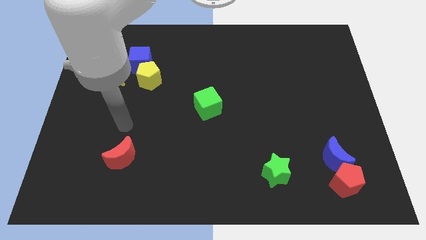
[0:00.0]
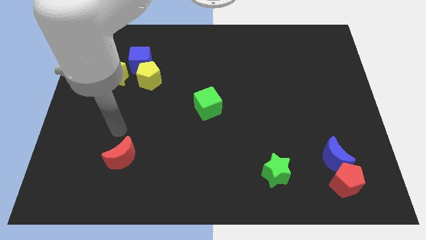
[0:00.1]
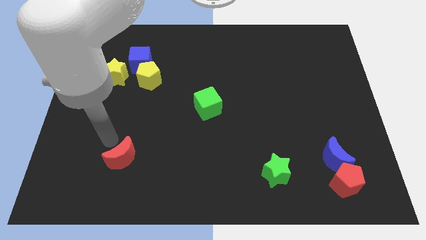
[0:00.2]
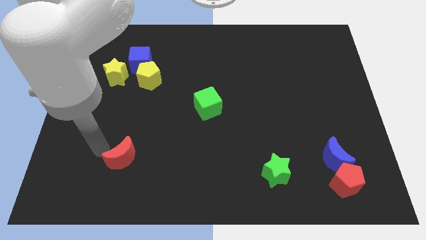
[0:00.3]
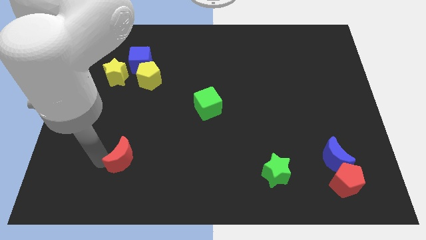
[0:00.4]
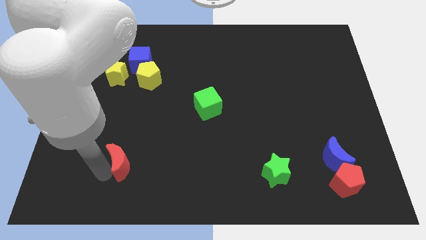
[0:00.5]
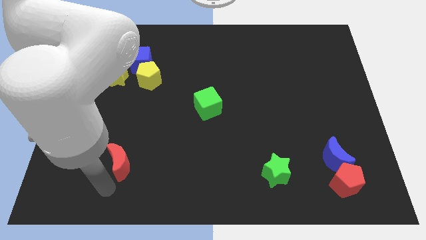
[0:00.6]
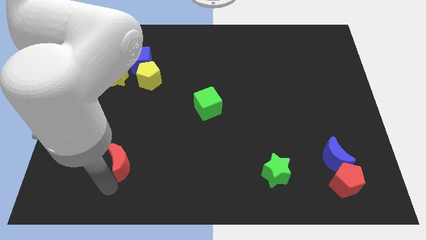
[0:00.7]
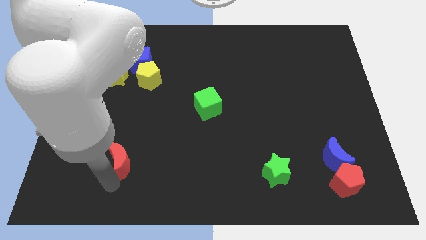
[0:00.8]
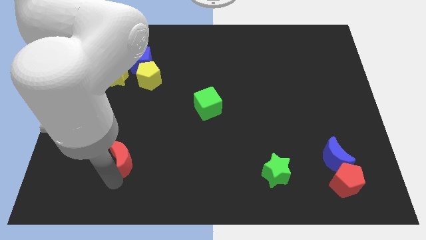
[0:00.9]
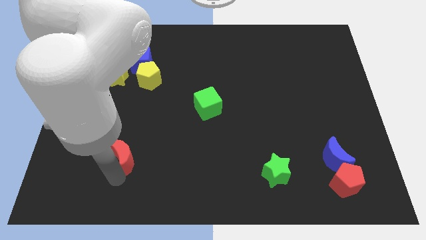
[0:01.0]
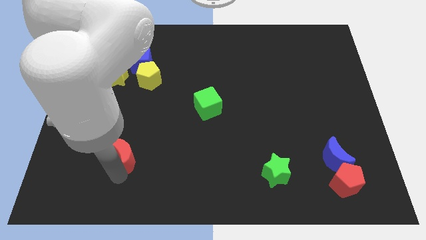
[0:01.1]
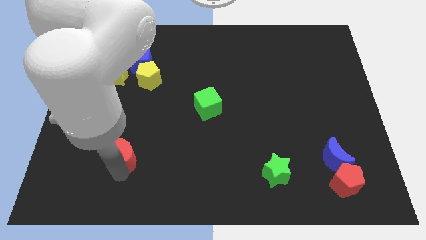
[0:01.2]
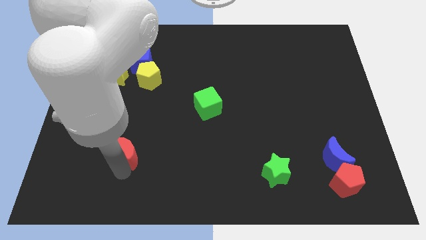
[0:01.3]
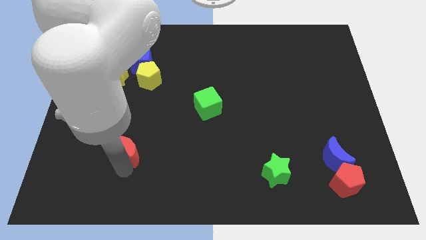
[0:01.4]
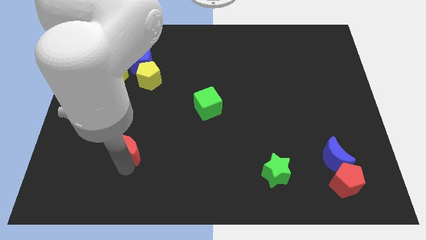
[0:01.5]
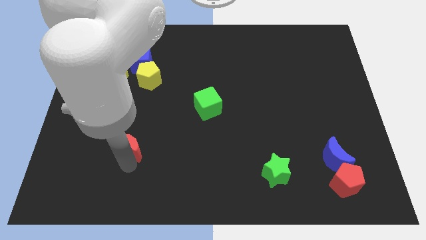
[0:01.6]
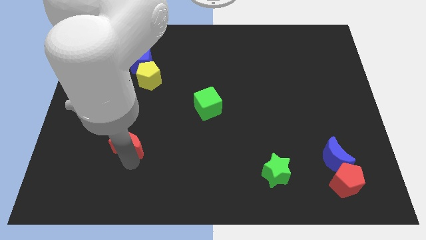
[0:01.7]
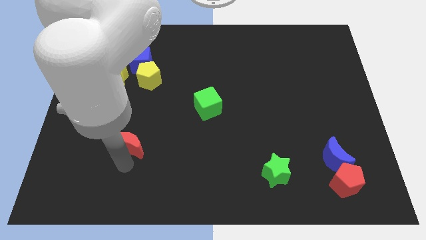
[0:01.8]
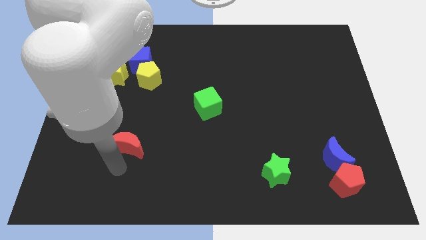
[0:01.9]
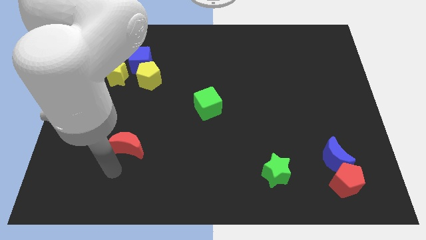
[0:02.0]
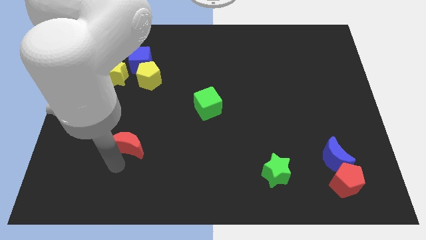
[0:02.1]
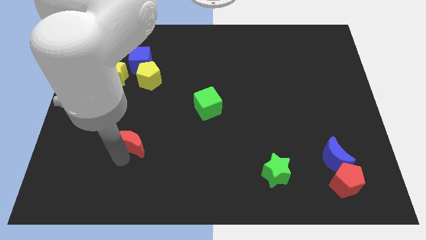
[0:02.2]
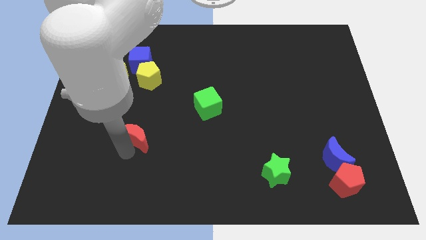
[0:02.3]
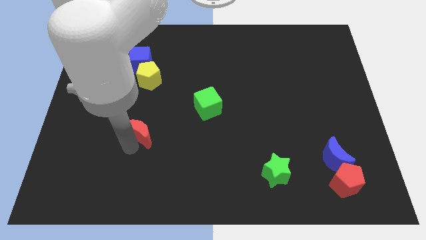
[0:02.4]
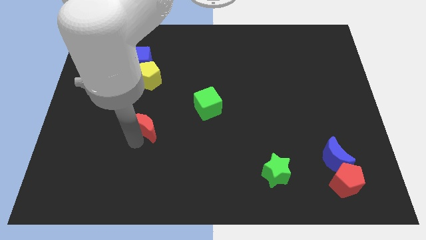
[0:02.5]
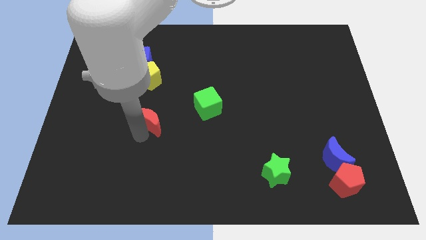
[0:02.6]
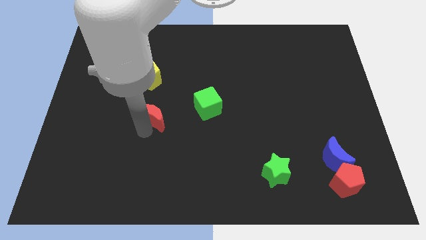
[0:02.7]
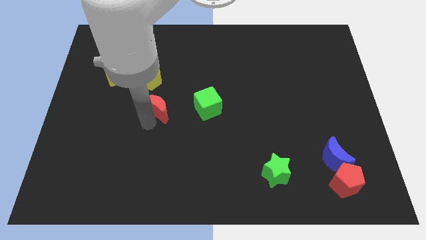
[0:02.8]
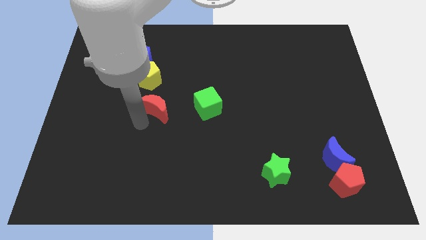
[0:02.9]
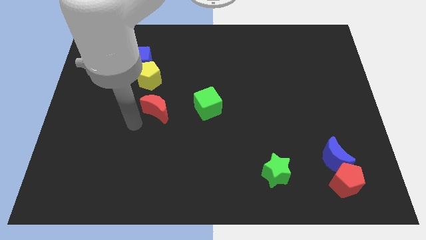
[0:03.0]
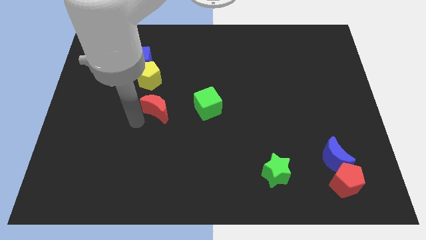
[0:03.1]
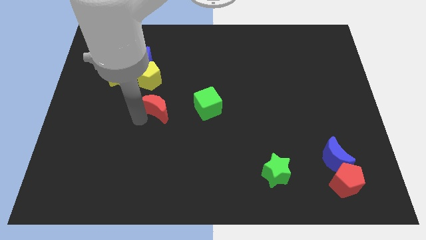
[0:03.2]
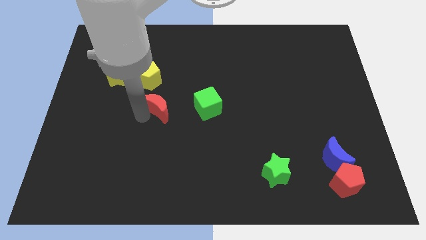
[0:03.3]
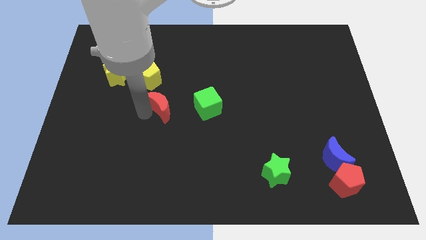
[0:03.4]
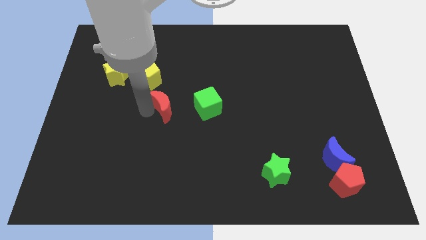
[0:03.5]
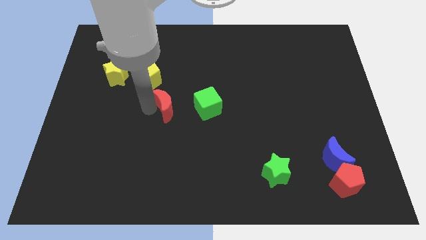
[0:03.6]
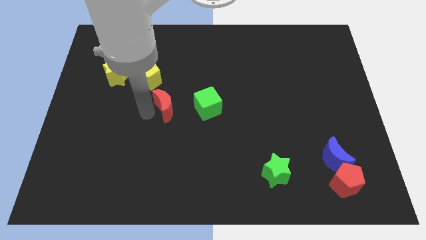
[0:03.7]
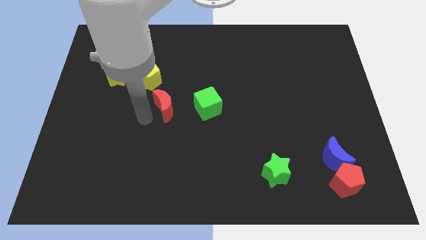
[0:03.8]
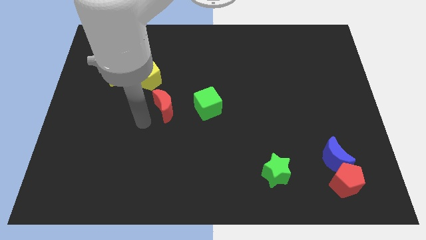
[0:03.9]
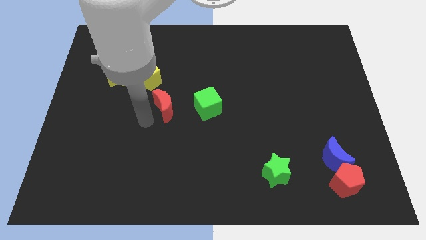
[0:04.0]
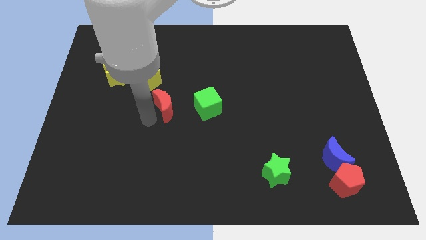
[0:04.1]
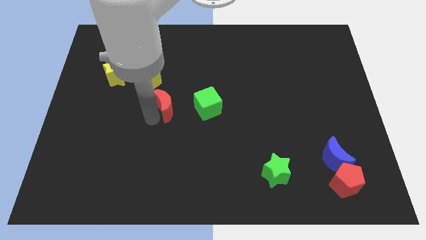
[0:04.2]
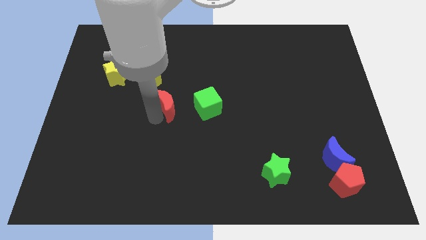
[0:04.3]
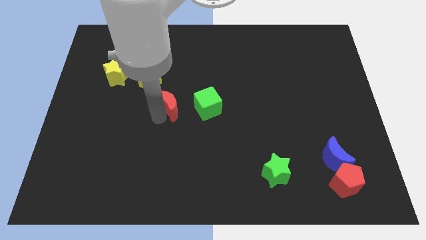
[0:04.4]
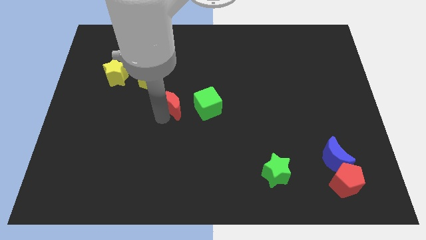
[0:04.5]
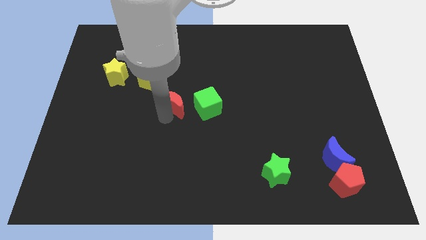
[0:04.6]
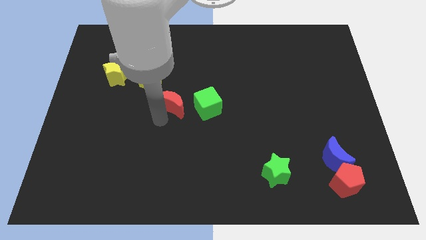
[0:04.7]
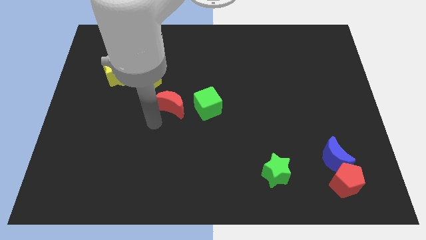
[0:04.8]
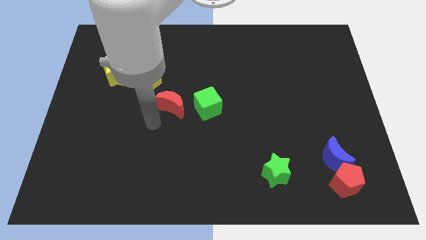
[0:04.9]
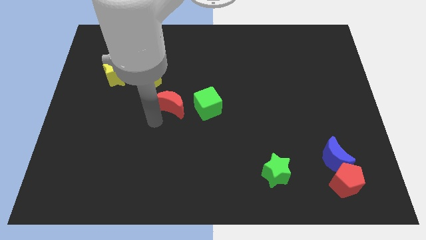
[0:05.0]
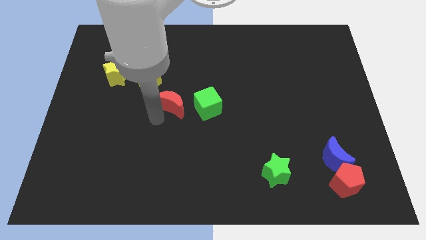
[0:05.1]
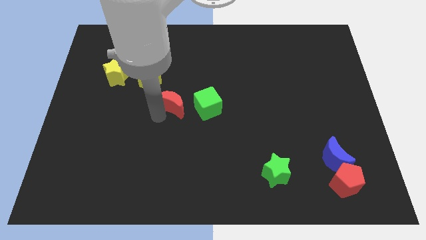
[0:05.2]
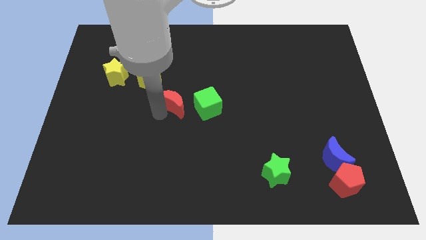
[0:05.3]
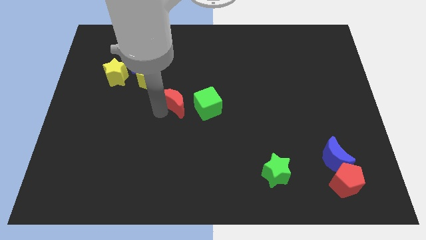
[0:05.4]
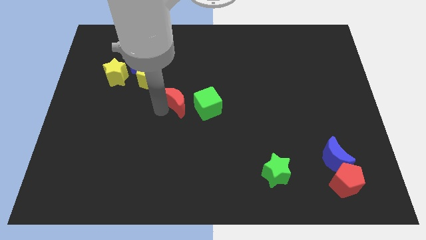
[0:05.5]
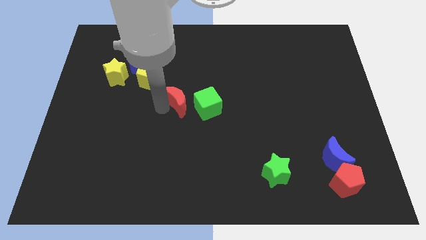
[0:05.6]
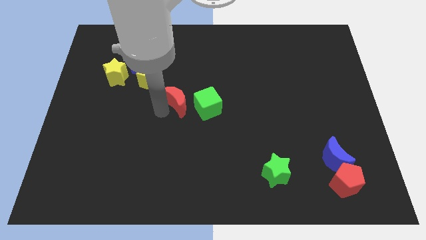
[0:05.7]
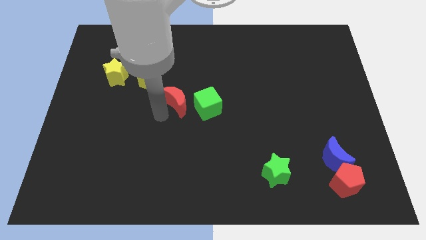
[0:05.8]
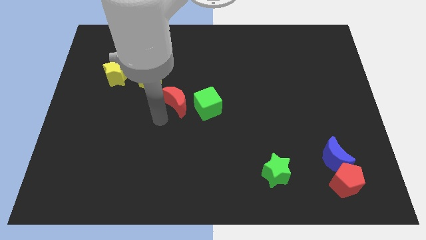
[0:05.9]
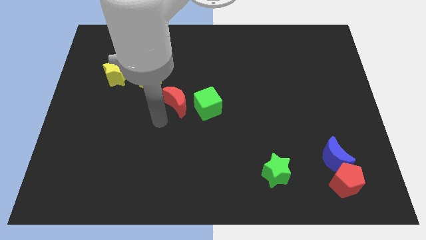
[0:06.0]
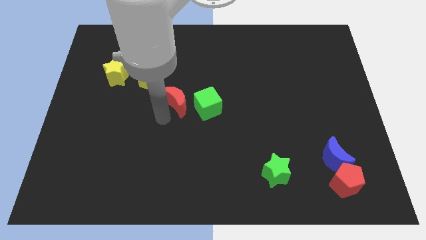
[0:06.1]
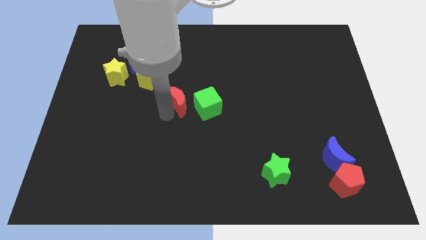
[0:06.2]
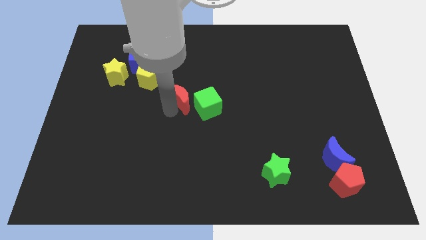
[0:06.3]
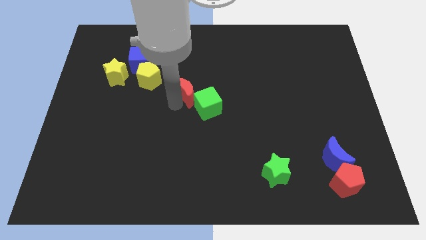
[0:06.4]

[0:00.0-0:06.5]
push the red moon up and right

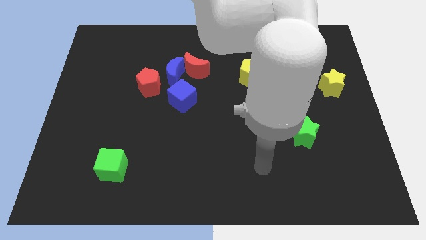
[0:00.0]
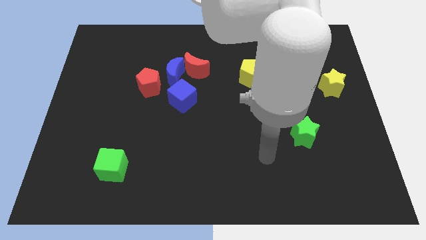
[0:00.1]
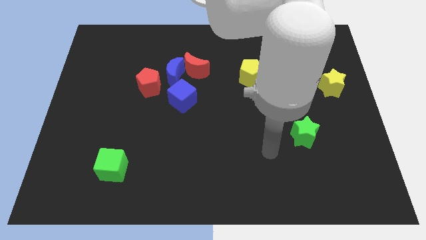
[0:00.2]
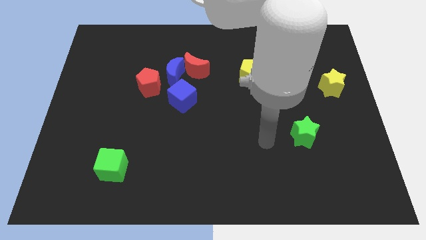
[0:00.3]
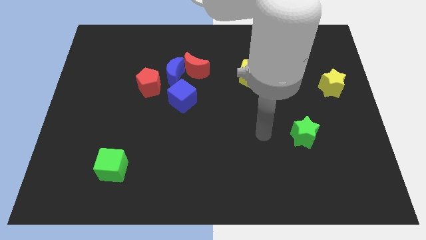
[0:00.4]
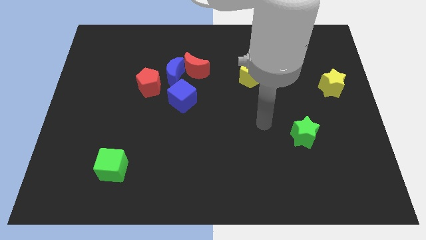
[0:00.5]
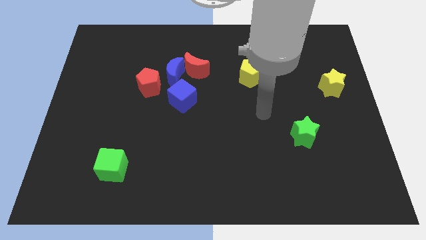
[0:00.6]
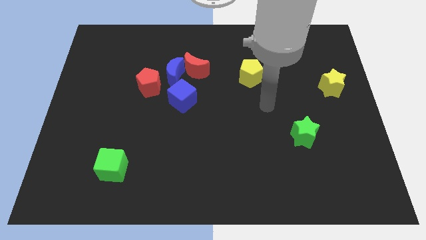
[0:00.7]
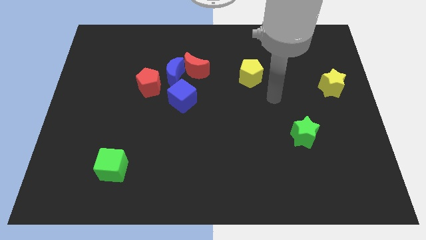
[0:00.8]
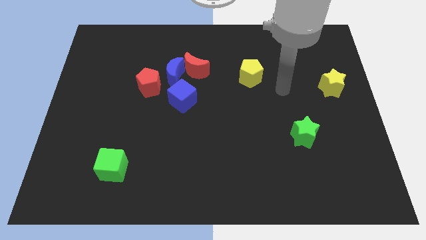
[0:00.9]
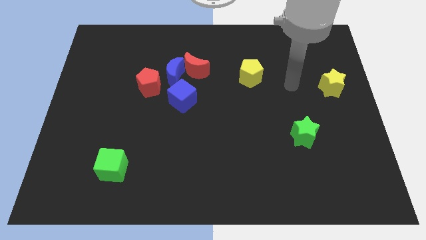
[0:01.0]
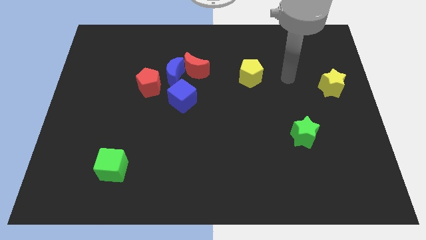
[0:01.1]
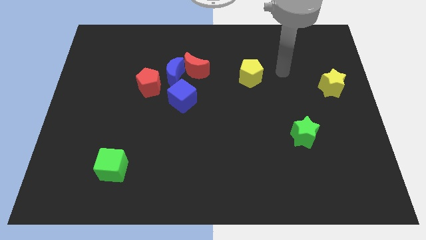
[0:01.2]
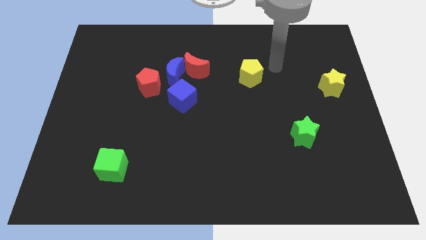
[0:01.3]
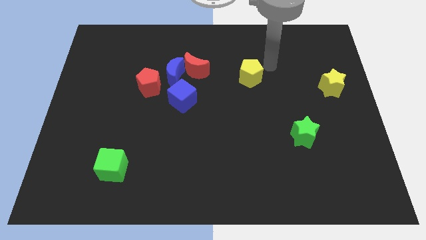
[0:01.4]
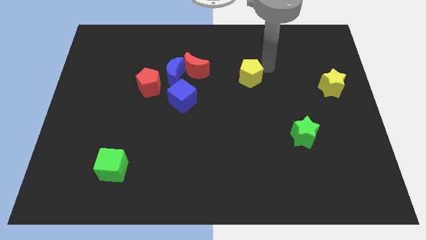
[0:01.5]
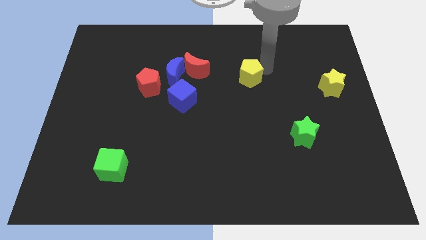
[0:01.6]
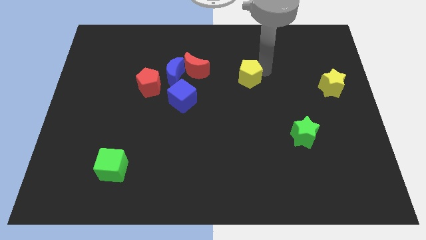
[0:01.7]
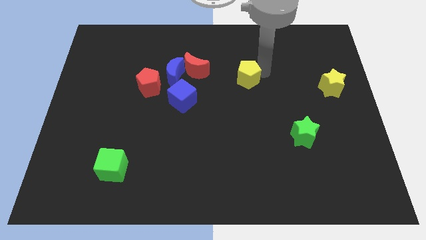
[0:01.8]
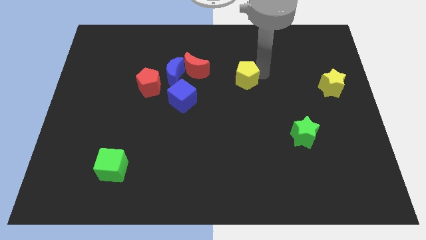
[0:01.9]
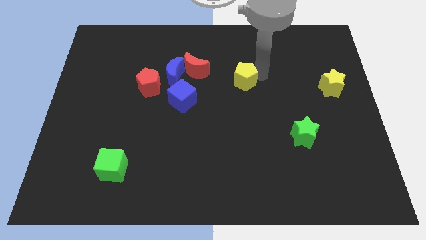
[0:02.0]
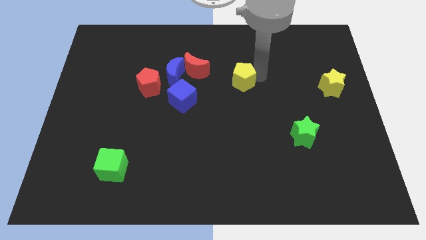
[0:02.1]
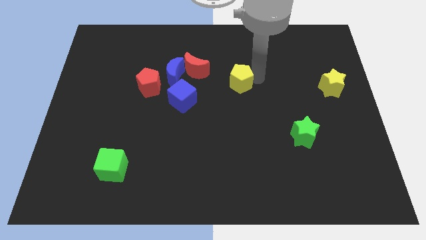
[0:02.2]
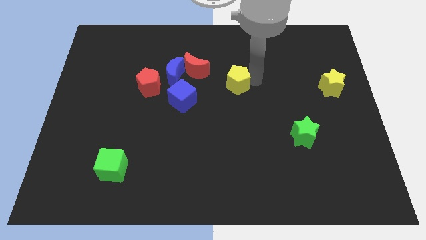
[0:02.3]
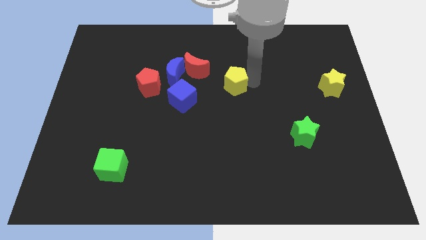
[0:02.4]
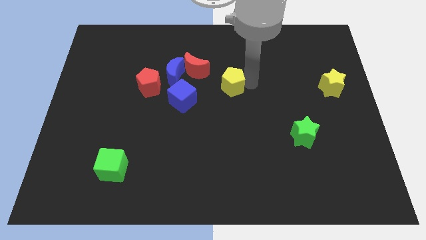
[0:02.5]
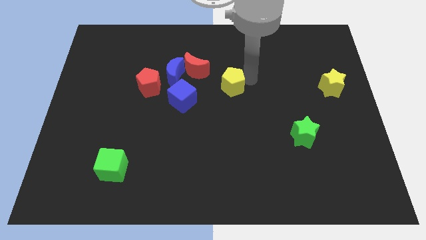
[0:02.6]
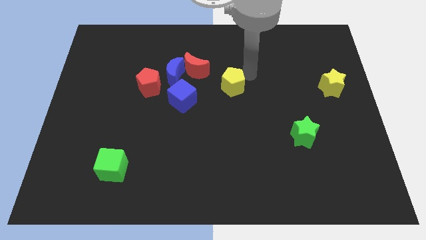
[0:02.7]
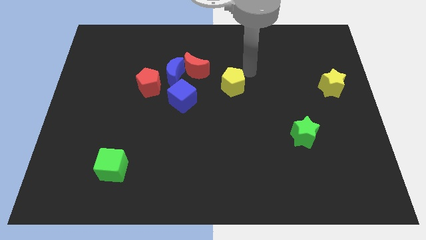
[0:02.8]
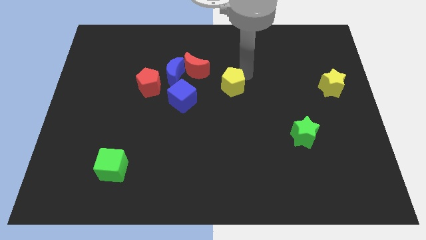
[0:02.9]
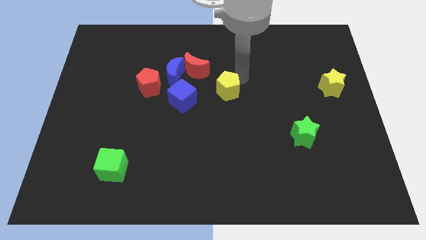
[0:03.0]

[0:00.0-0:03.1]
slide the yellow pentagon a bit down and to the left diagonally
